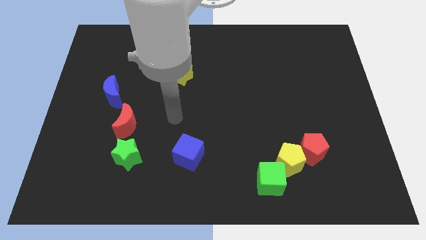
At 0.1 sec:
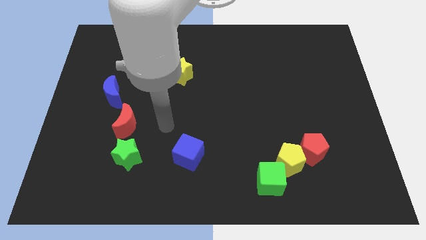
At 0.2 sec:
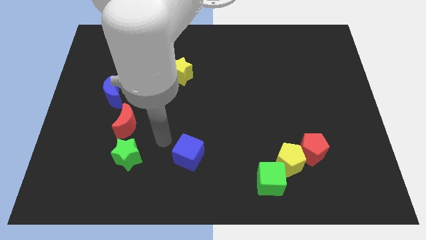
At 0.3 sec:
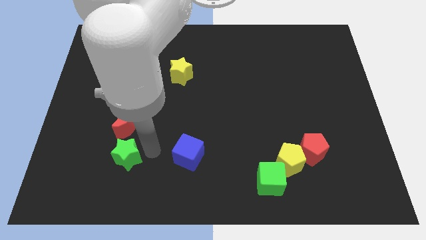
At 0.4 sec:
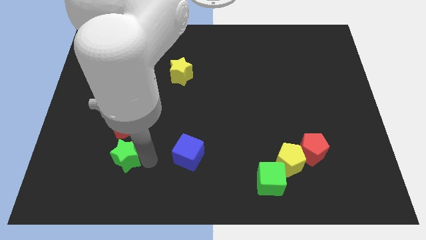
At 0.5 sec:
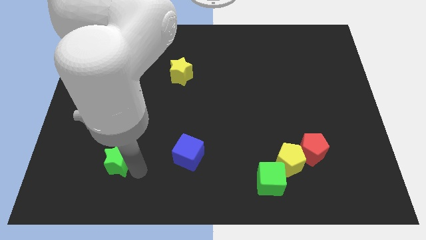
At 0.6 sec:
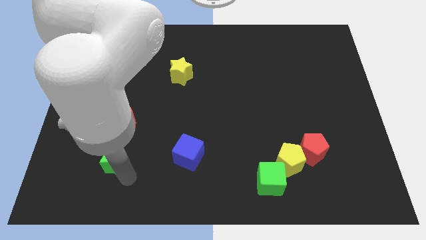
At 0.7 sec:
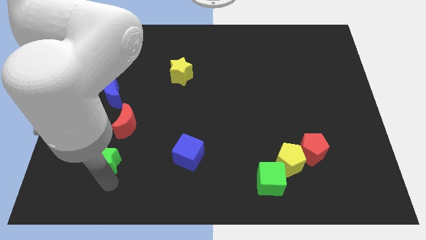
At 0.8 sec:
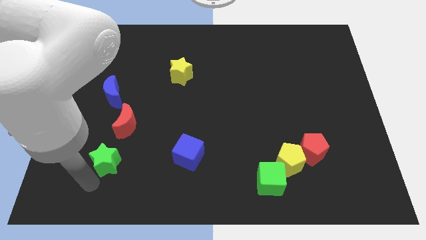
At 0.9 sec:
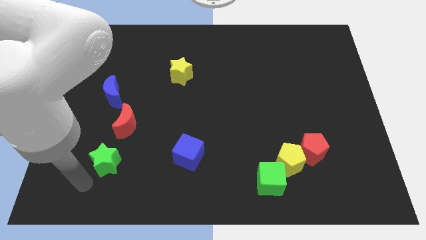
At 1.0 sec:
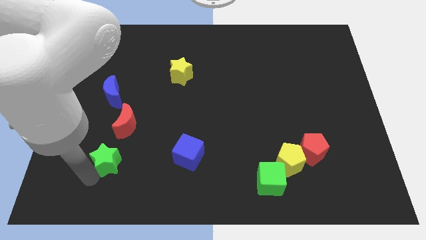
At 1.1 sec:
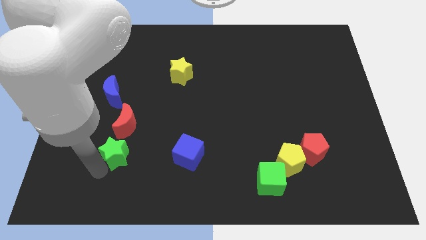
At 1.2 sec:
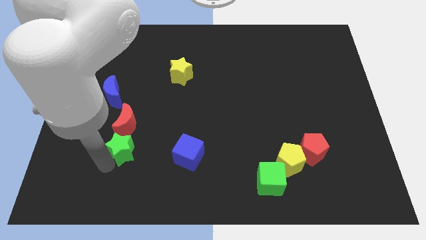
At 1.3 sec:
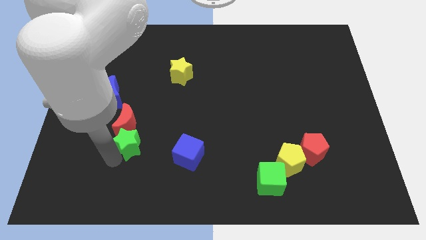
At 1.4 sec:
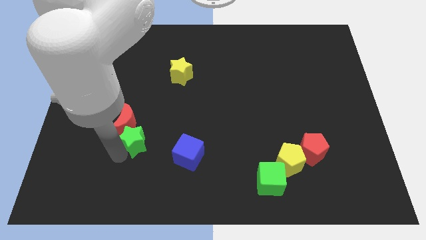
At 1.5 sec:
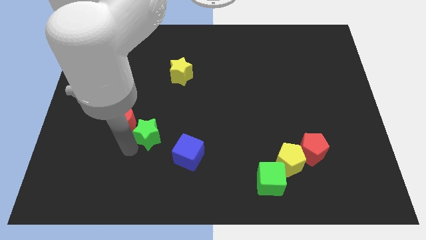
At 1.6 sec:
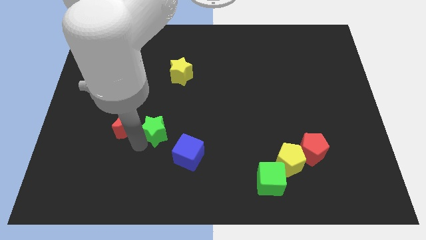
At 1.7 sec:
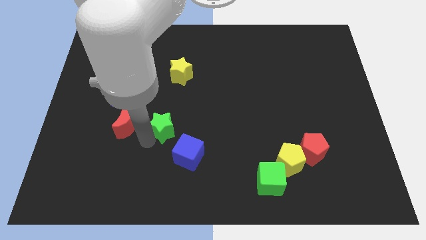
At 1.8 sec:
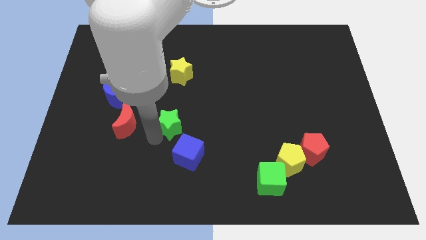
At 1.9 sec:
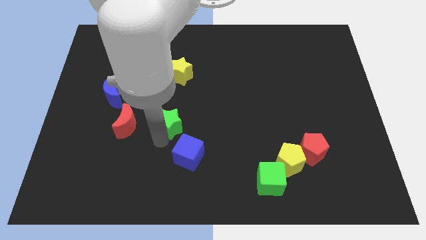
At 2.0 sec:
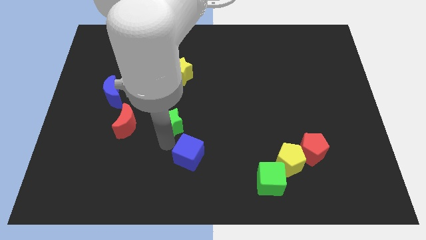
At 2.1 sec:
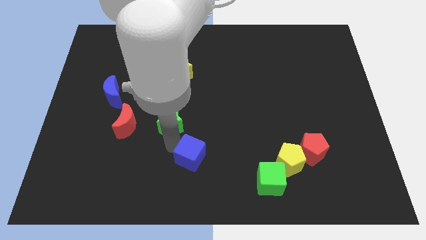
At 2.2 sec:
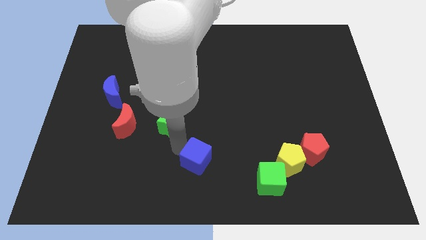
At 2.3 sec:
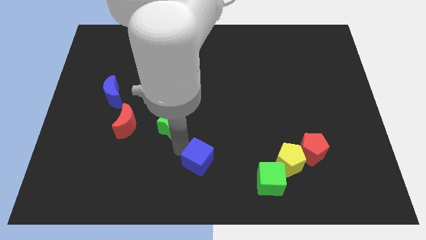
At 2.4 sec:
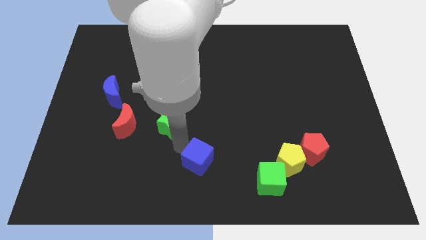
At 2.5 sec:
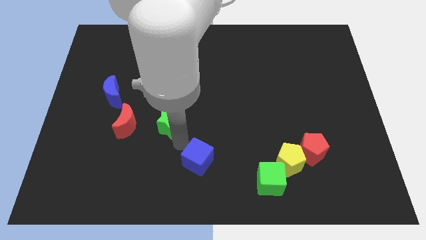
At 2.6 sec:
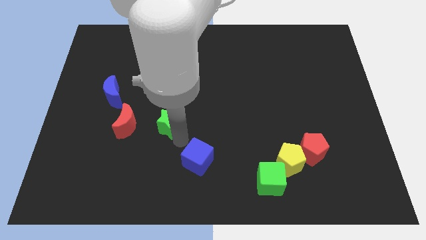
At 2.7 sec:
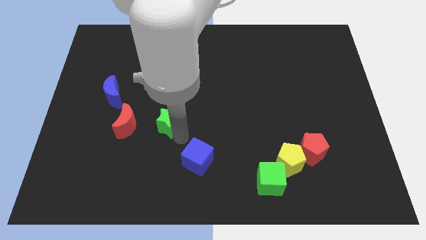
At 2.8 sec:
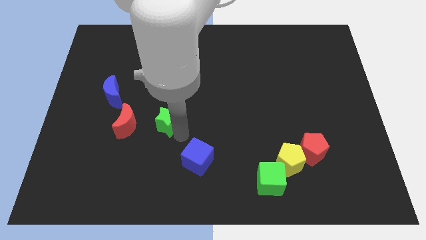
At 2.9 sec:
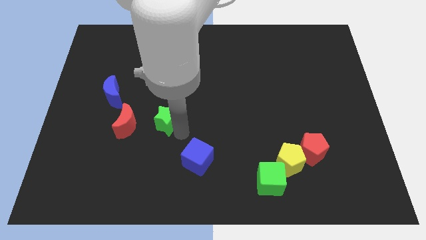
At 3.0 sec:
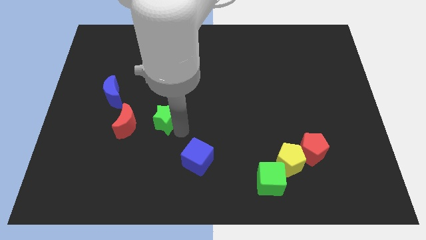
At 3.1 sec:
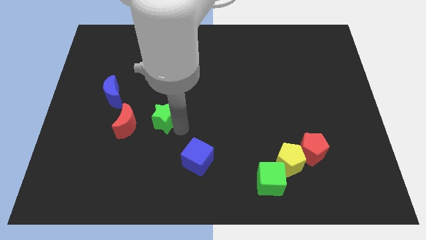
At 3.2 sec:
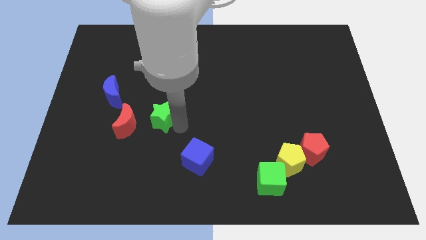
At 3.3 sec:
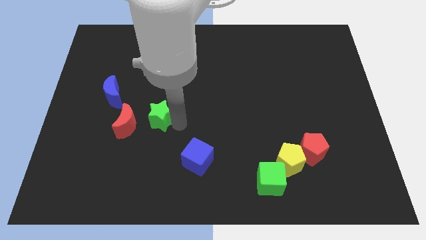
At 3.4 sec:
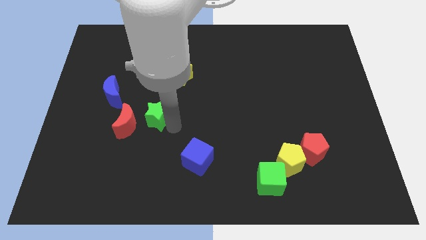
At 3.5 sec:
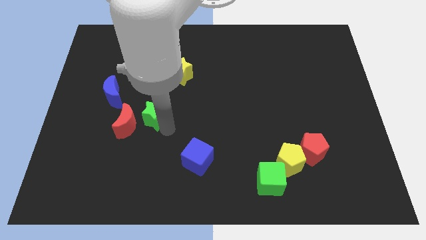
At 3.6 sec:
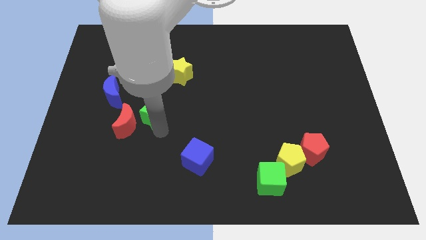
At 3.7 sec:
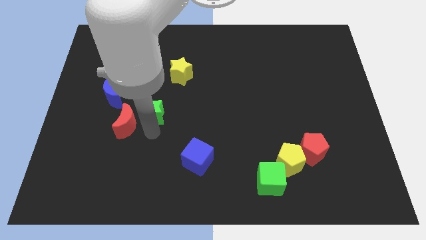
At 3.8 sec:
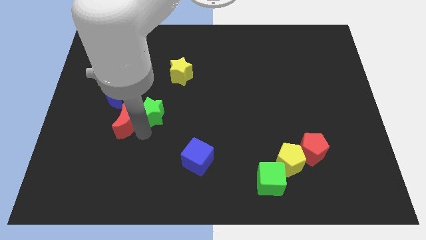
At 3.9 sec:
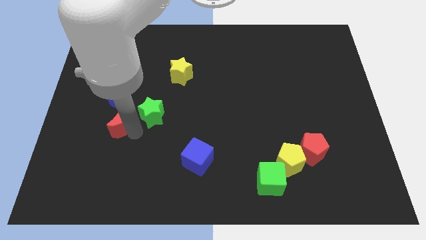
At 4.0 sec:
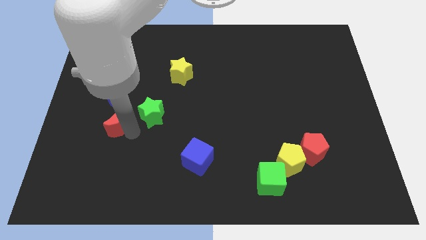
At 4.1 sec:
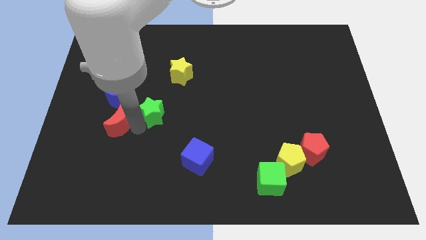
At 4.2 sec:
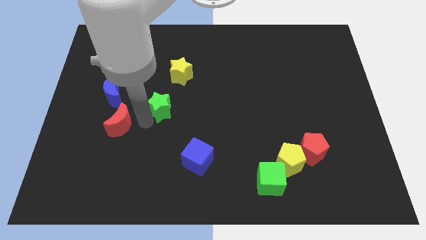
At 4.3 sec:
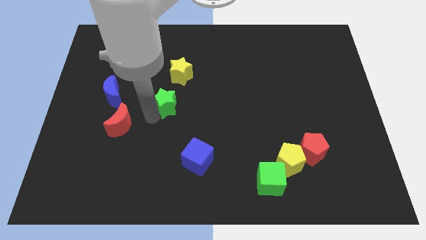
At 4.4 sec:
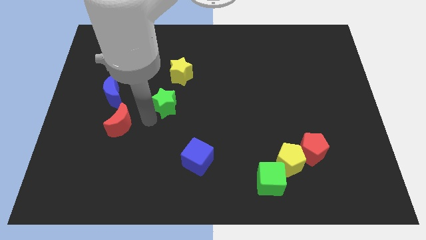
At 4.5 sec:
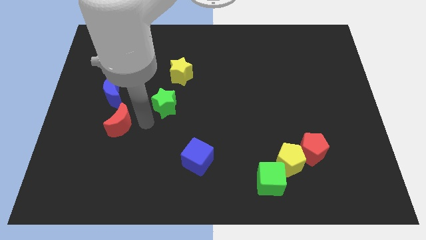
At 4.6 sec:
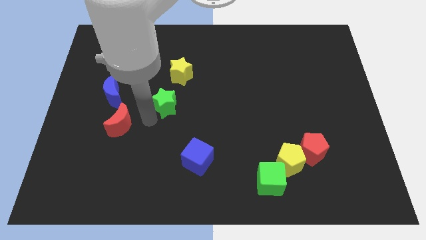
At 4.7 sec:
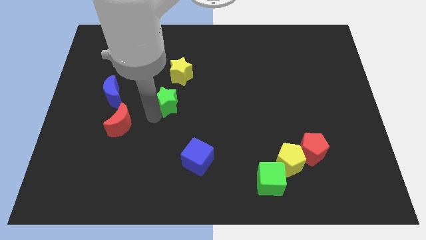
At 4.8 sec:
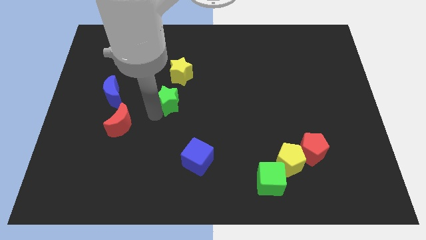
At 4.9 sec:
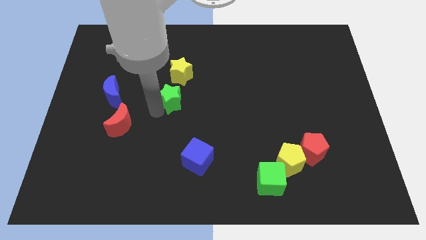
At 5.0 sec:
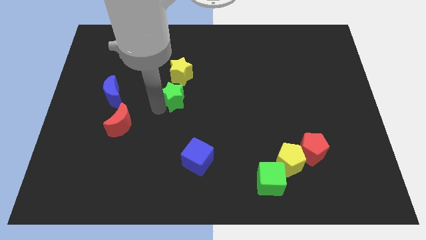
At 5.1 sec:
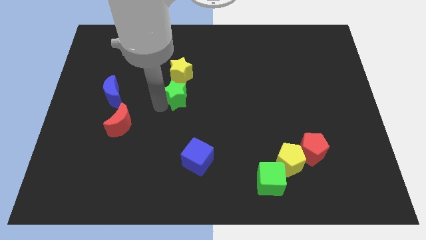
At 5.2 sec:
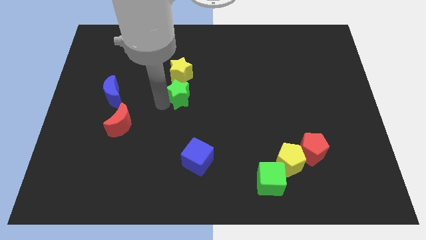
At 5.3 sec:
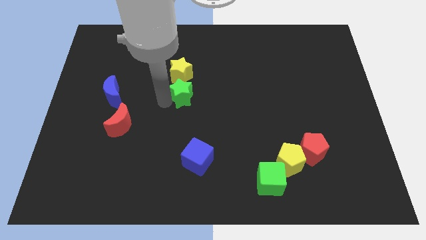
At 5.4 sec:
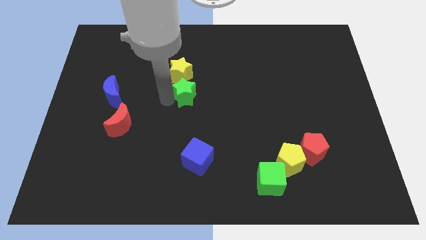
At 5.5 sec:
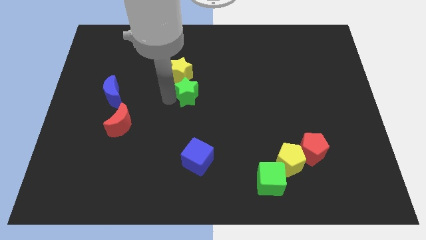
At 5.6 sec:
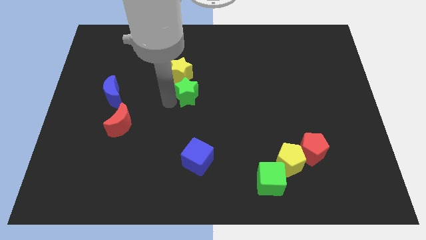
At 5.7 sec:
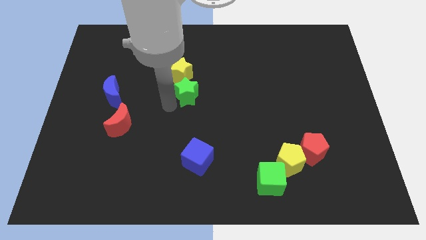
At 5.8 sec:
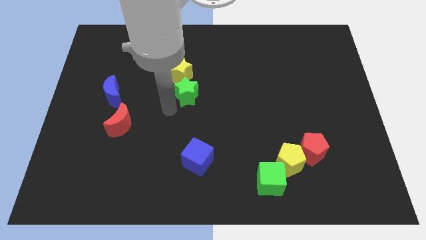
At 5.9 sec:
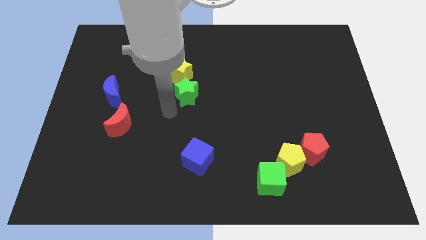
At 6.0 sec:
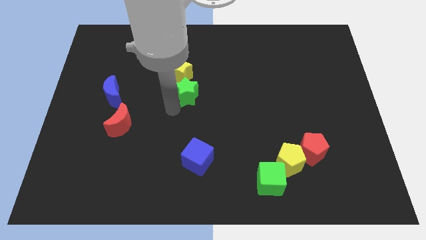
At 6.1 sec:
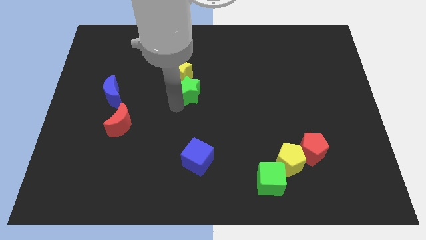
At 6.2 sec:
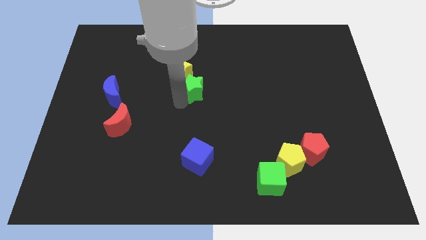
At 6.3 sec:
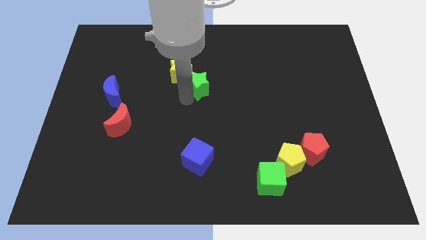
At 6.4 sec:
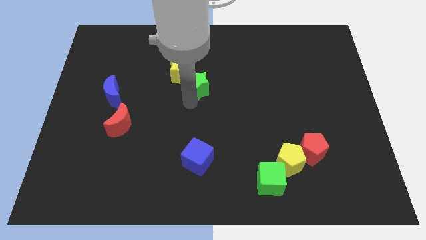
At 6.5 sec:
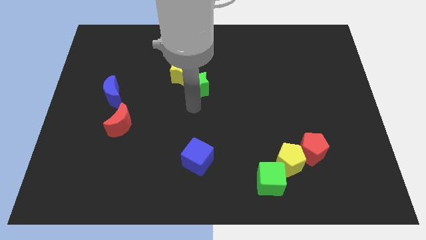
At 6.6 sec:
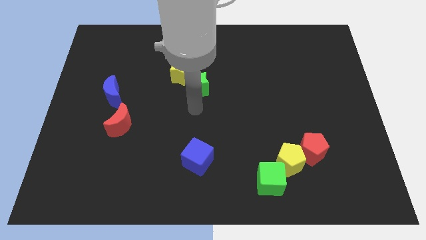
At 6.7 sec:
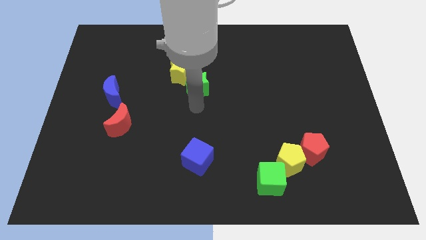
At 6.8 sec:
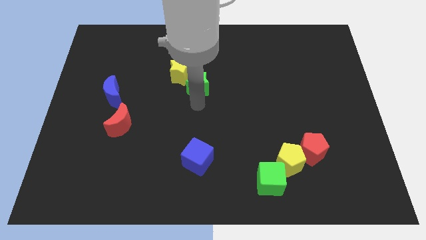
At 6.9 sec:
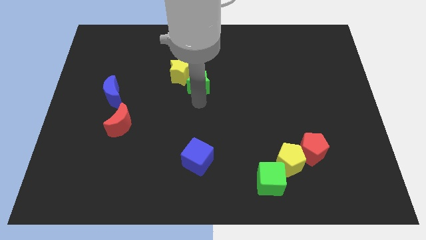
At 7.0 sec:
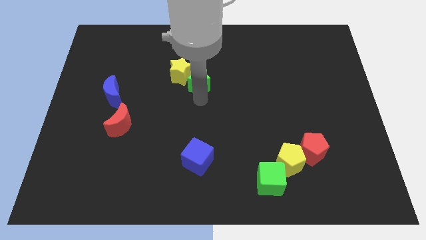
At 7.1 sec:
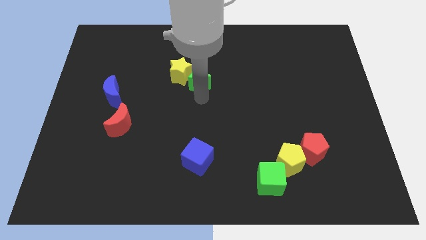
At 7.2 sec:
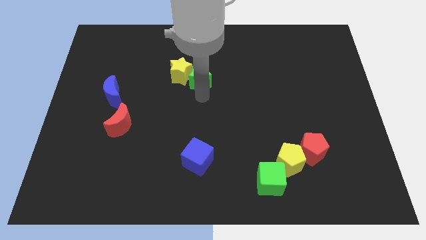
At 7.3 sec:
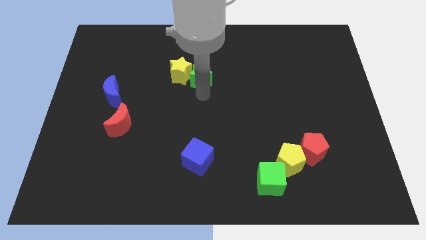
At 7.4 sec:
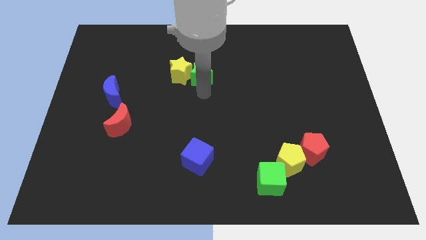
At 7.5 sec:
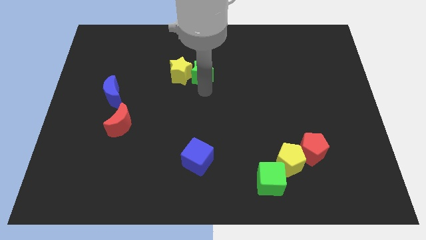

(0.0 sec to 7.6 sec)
slide the green star to the top right of the yellow star
